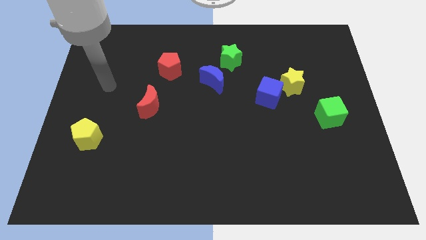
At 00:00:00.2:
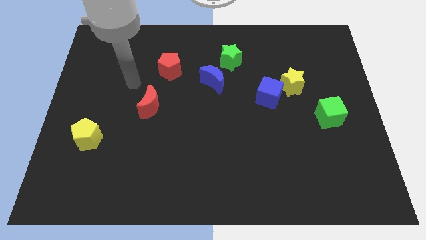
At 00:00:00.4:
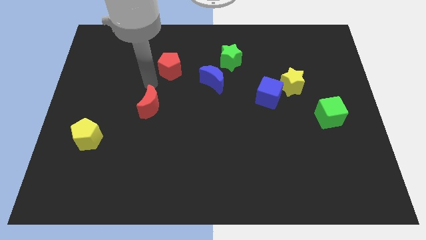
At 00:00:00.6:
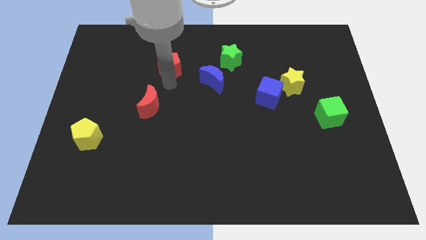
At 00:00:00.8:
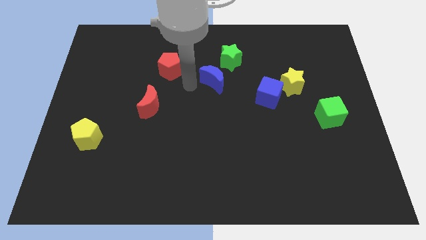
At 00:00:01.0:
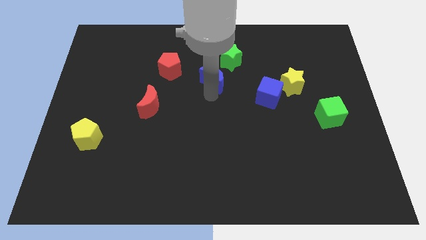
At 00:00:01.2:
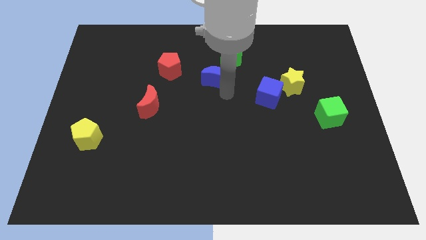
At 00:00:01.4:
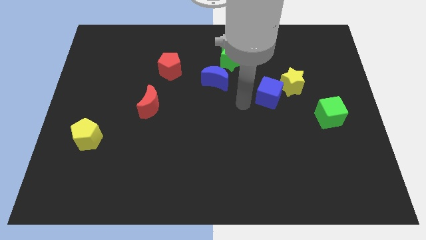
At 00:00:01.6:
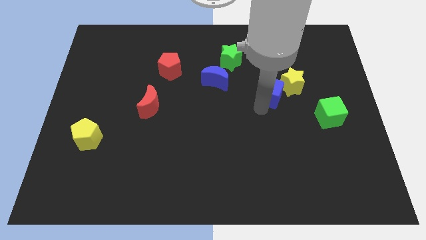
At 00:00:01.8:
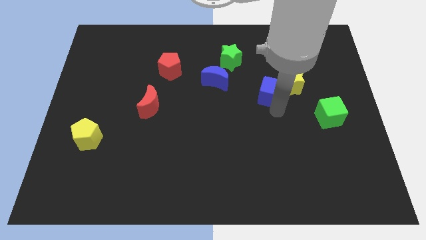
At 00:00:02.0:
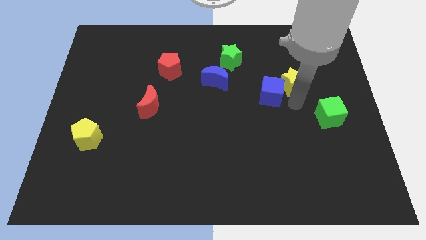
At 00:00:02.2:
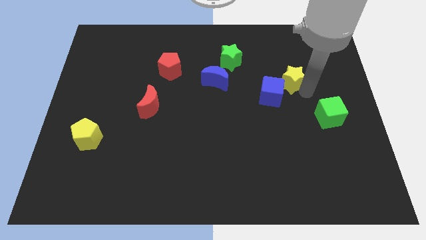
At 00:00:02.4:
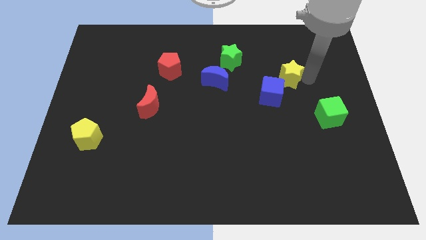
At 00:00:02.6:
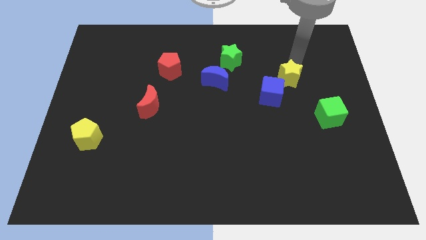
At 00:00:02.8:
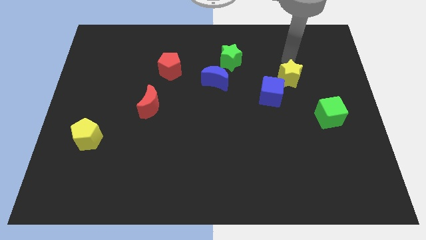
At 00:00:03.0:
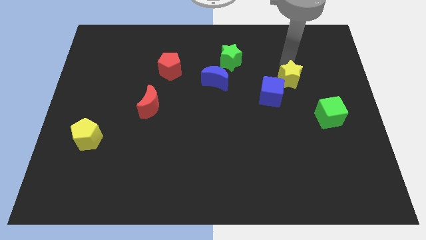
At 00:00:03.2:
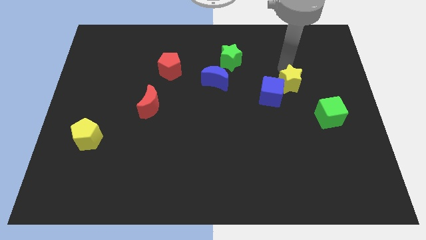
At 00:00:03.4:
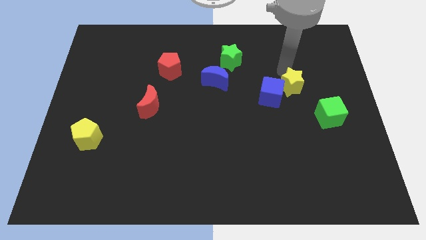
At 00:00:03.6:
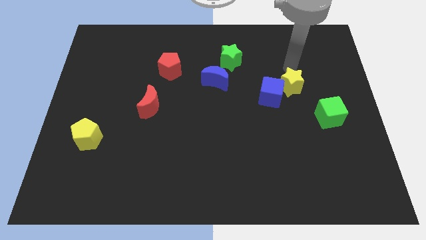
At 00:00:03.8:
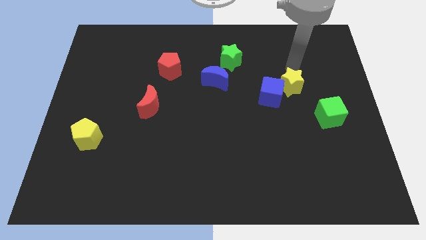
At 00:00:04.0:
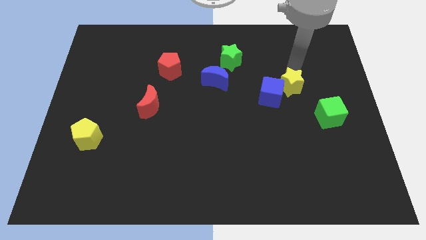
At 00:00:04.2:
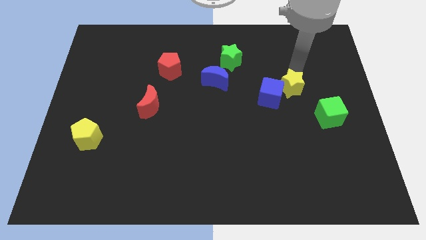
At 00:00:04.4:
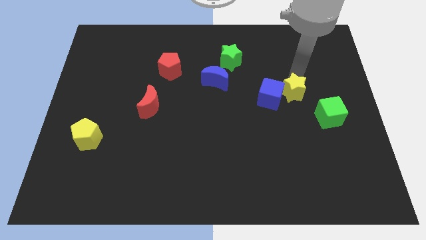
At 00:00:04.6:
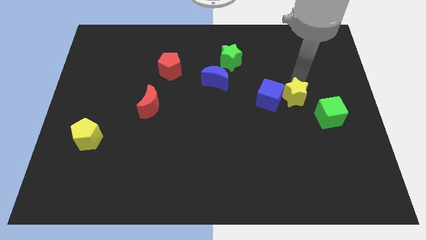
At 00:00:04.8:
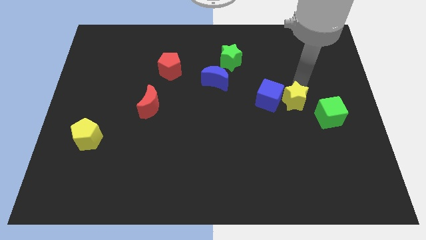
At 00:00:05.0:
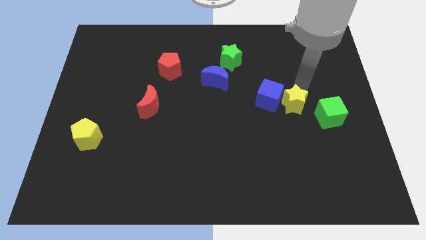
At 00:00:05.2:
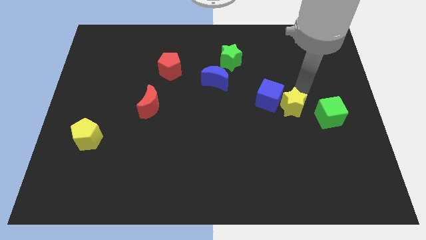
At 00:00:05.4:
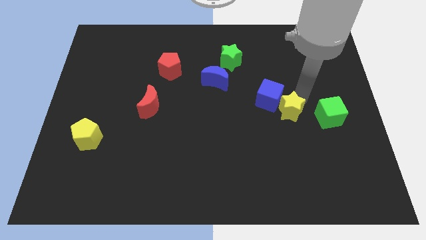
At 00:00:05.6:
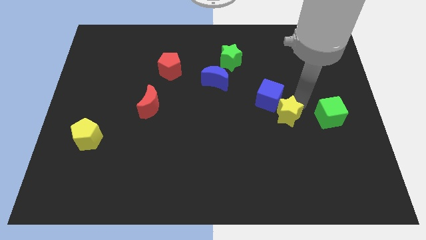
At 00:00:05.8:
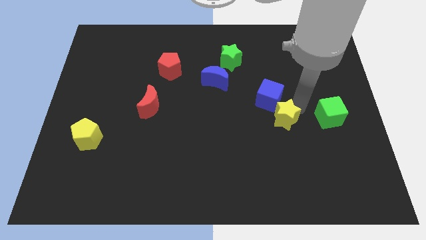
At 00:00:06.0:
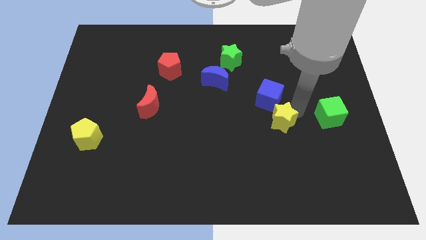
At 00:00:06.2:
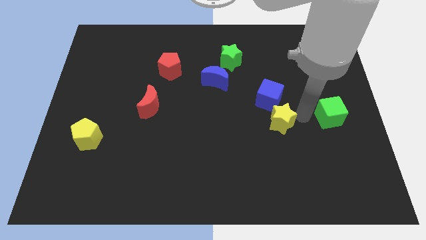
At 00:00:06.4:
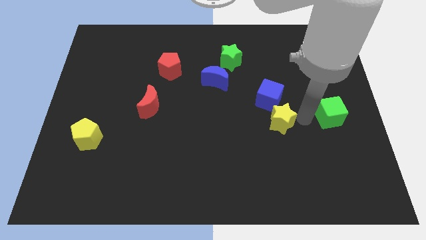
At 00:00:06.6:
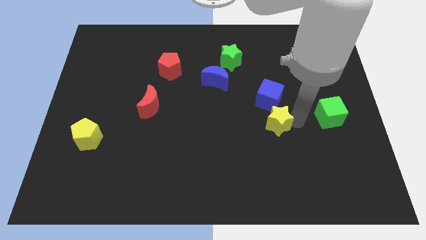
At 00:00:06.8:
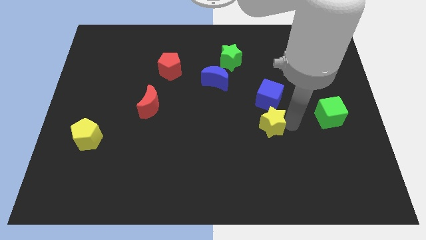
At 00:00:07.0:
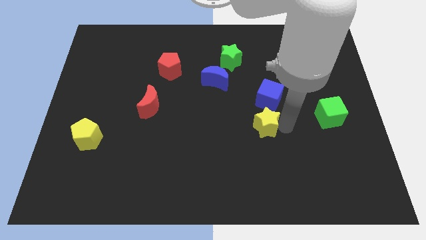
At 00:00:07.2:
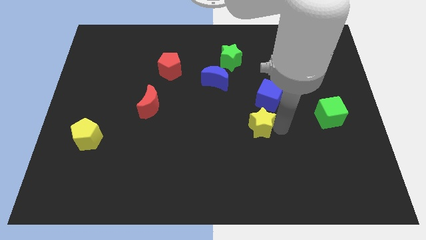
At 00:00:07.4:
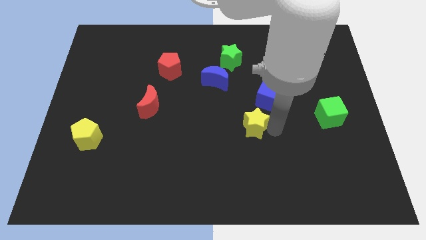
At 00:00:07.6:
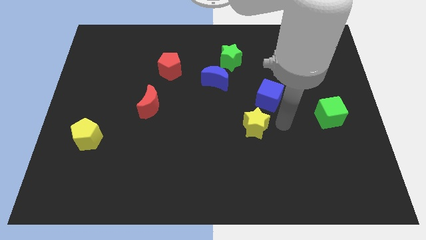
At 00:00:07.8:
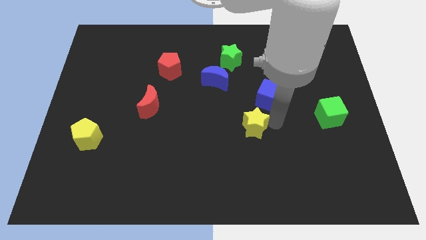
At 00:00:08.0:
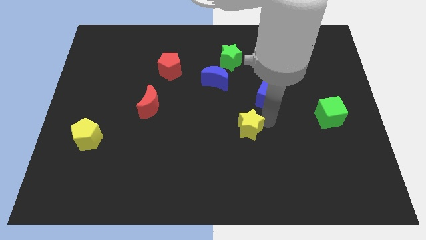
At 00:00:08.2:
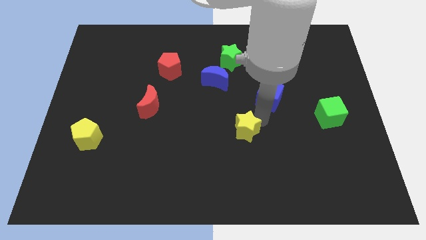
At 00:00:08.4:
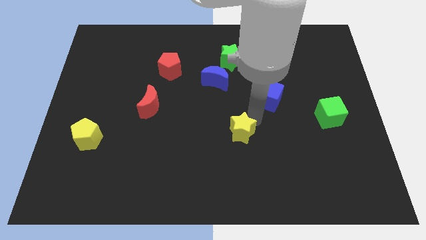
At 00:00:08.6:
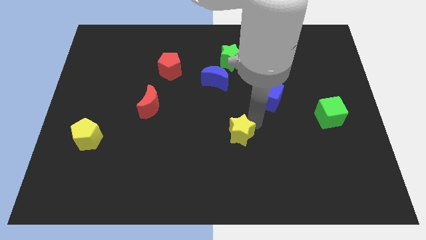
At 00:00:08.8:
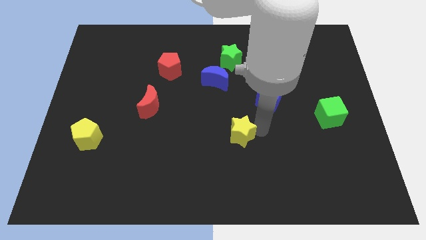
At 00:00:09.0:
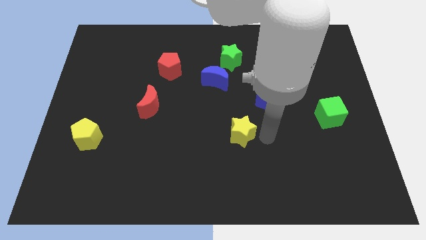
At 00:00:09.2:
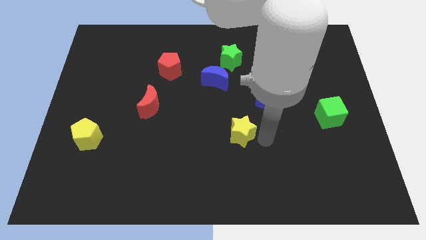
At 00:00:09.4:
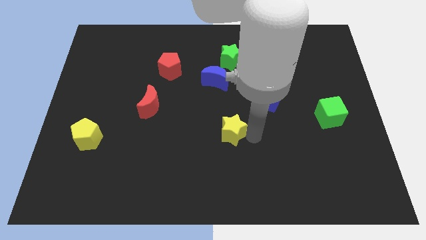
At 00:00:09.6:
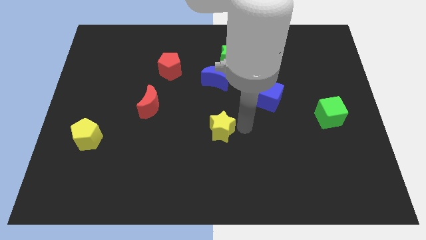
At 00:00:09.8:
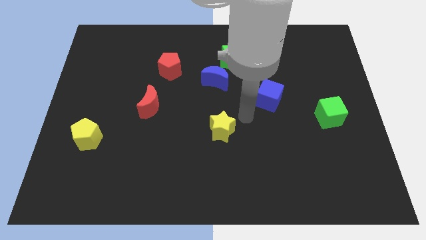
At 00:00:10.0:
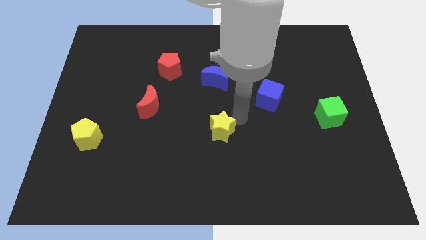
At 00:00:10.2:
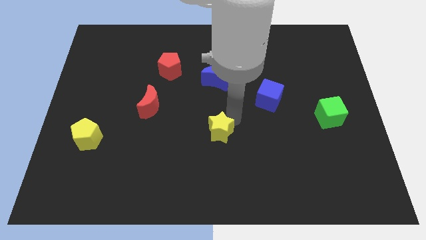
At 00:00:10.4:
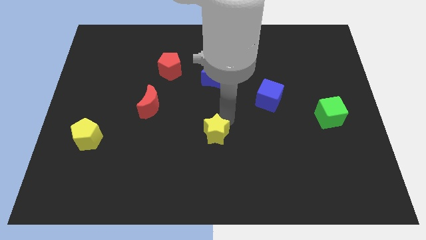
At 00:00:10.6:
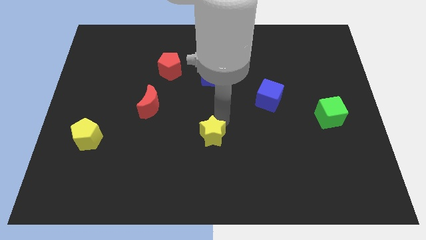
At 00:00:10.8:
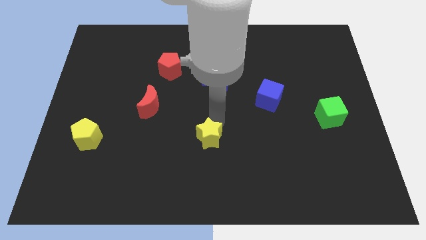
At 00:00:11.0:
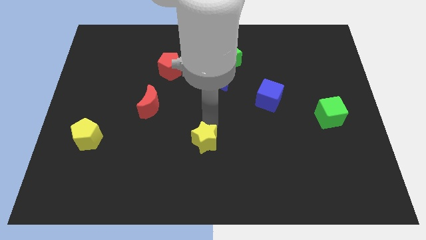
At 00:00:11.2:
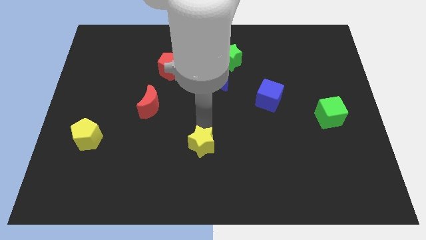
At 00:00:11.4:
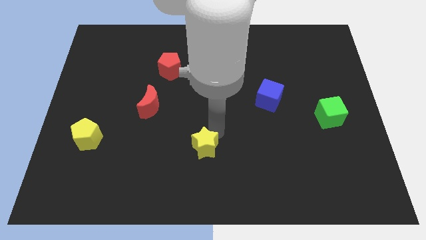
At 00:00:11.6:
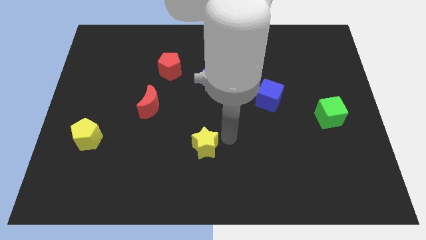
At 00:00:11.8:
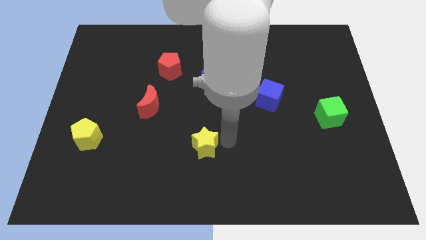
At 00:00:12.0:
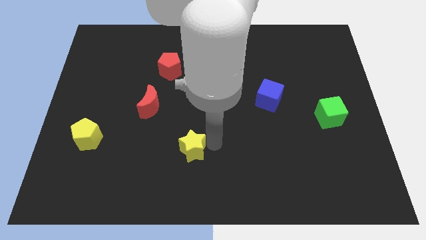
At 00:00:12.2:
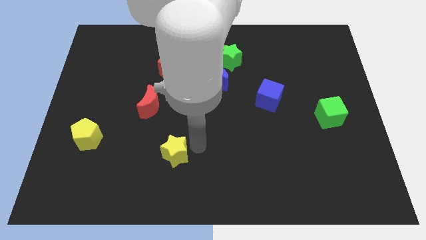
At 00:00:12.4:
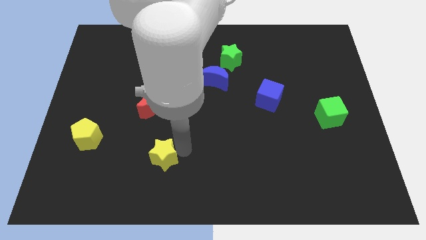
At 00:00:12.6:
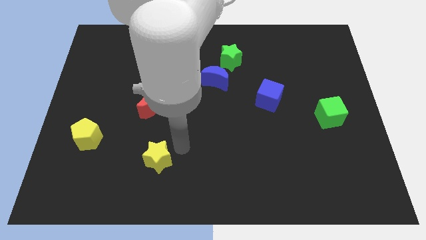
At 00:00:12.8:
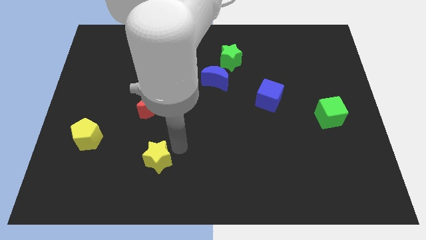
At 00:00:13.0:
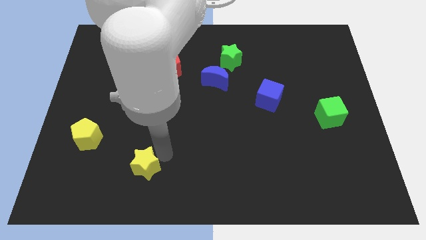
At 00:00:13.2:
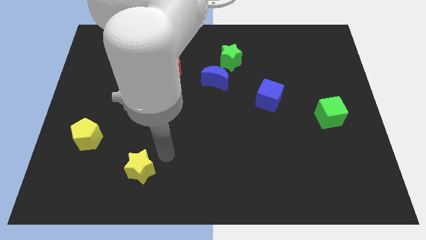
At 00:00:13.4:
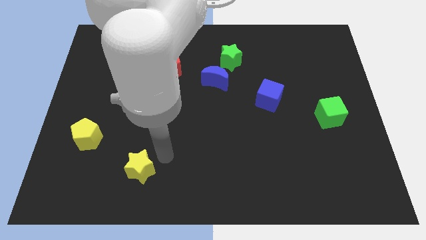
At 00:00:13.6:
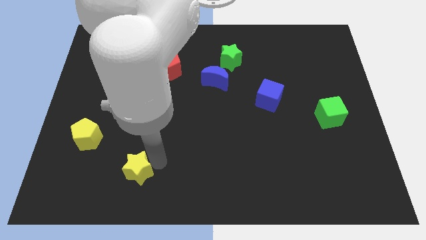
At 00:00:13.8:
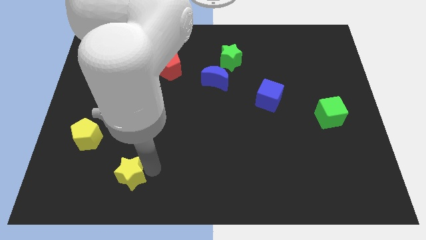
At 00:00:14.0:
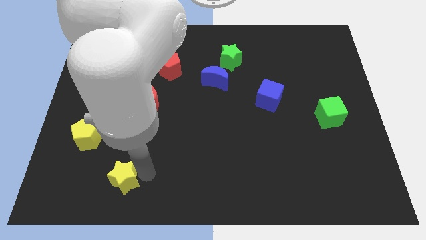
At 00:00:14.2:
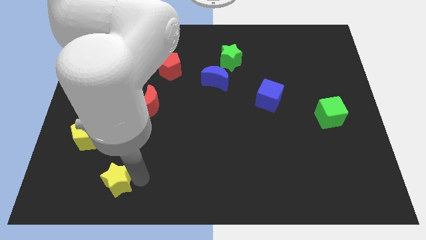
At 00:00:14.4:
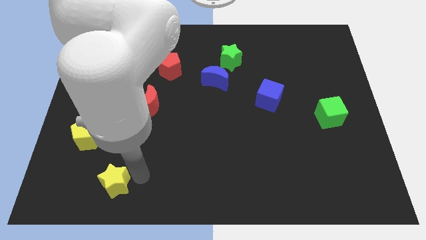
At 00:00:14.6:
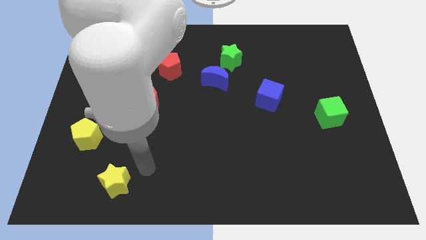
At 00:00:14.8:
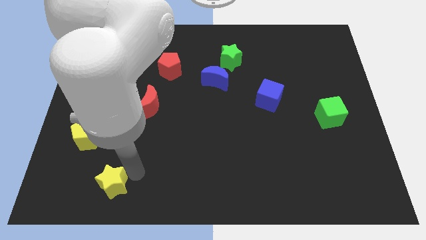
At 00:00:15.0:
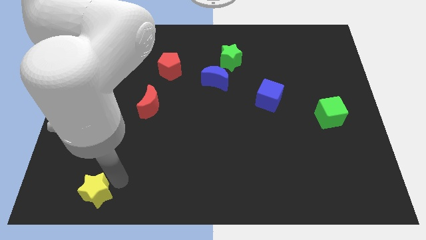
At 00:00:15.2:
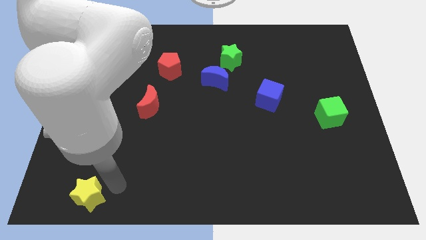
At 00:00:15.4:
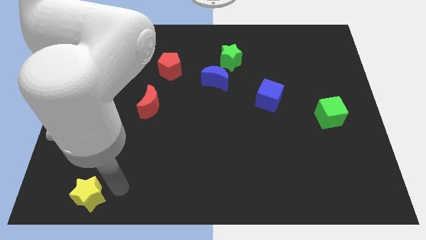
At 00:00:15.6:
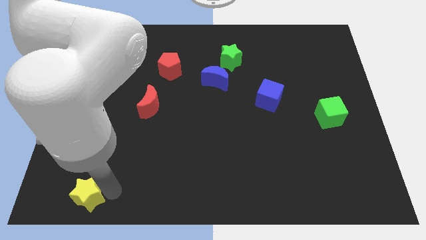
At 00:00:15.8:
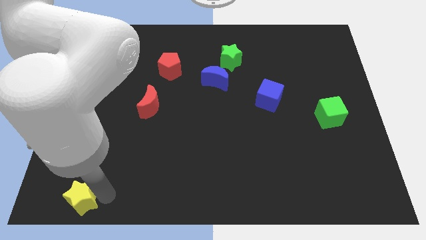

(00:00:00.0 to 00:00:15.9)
put the yellow star to the lower left corner
